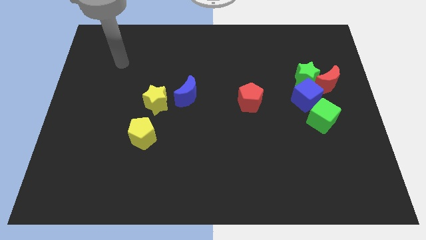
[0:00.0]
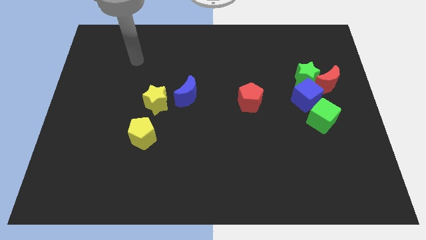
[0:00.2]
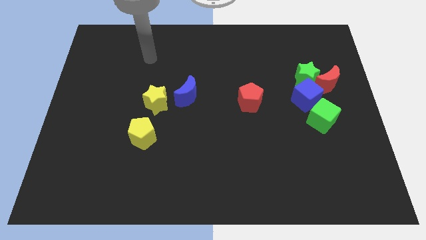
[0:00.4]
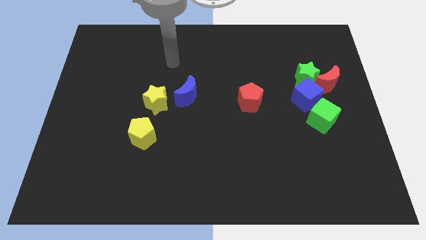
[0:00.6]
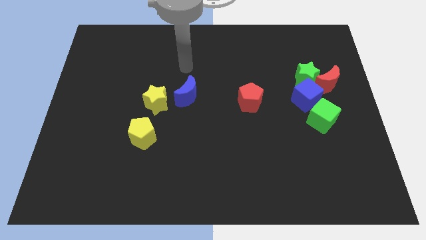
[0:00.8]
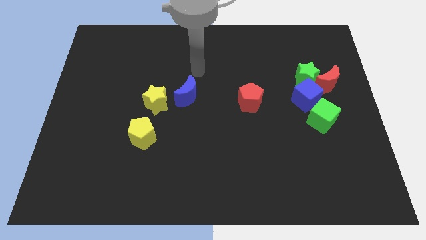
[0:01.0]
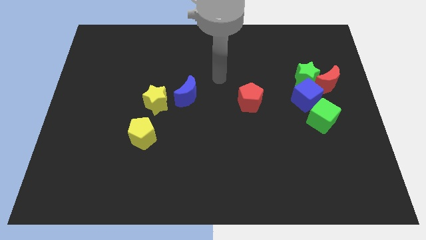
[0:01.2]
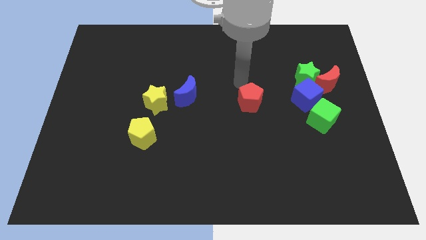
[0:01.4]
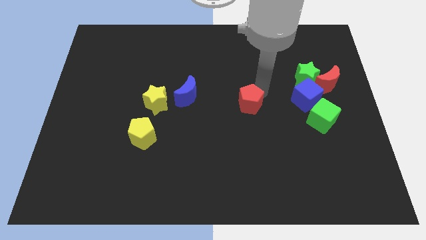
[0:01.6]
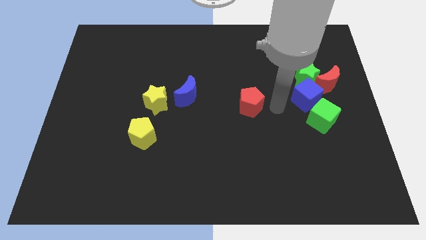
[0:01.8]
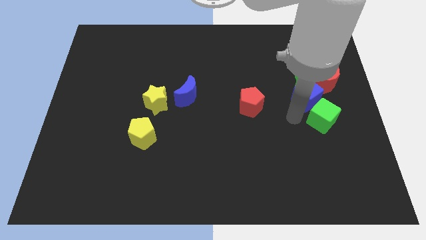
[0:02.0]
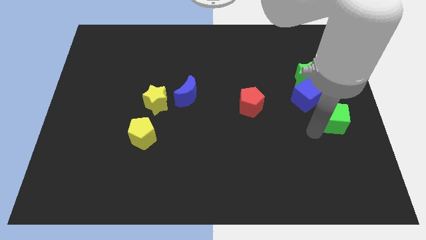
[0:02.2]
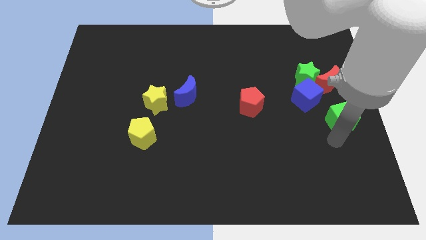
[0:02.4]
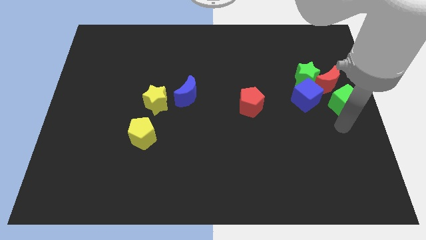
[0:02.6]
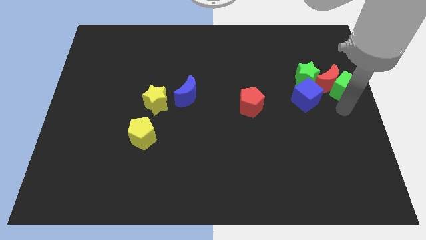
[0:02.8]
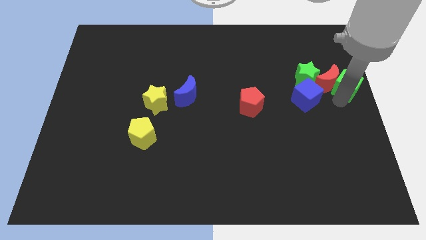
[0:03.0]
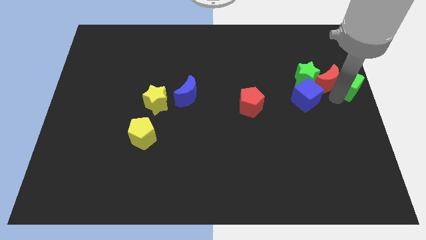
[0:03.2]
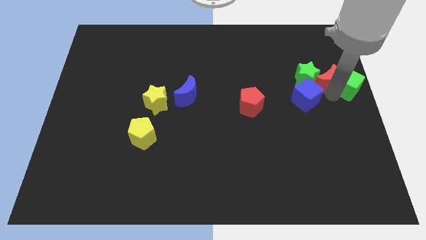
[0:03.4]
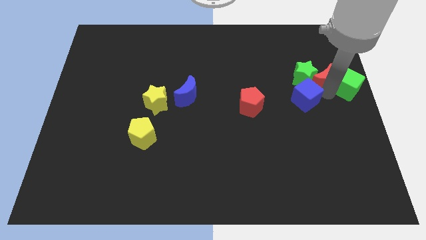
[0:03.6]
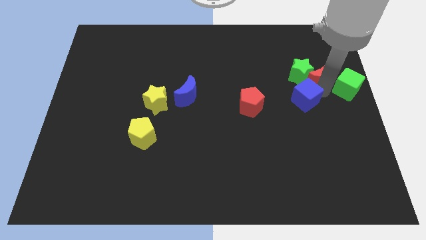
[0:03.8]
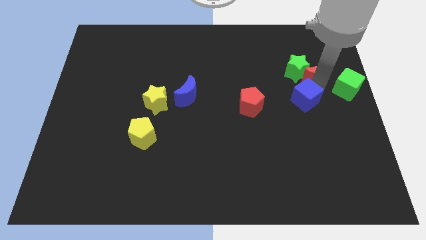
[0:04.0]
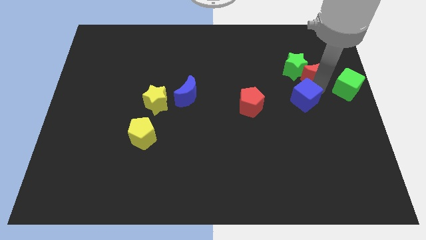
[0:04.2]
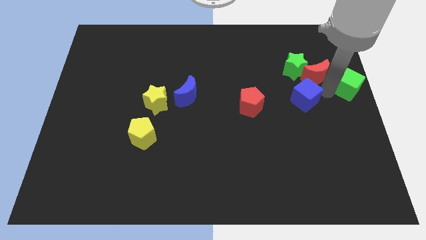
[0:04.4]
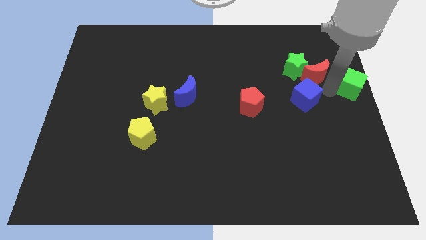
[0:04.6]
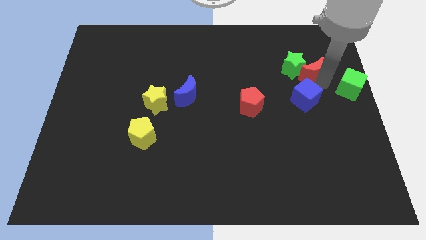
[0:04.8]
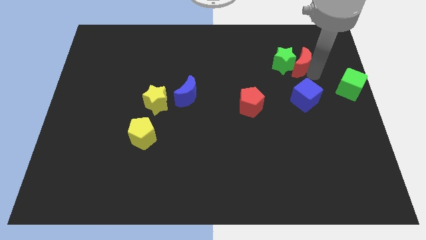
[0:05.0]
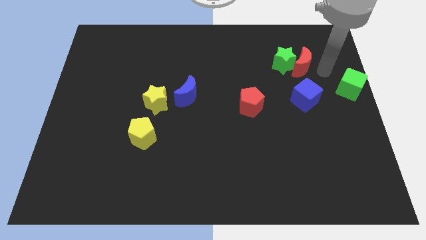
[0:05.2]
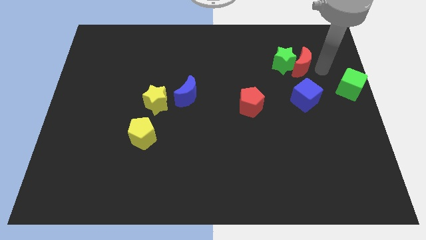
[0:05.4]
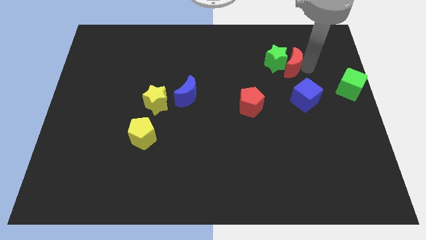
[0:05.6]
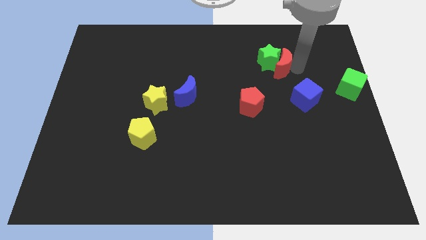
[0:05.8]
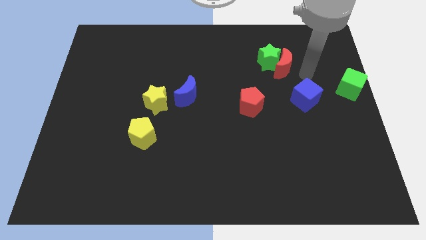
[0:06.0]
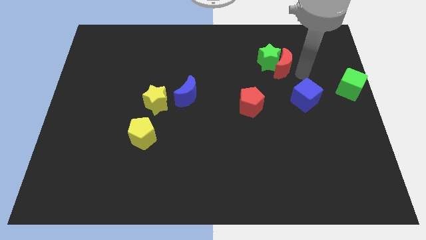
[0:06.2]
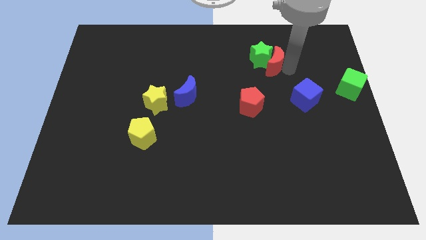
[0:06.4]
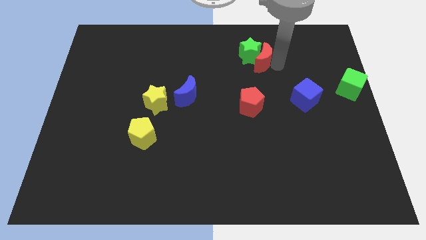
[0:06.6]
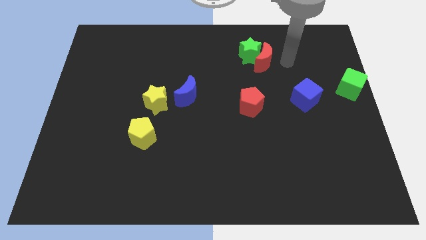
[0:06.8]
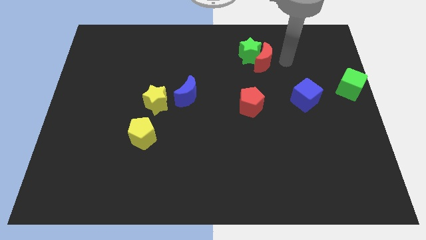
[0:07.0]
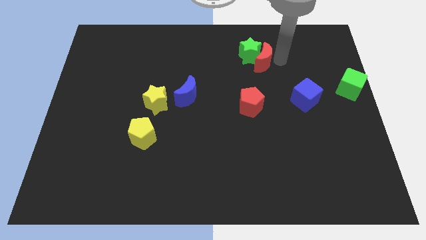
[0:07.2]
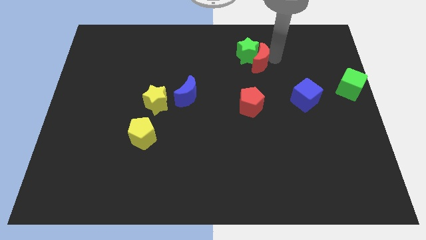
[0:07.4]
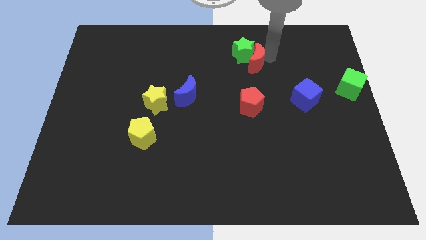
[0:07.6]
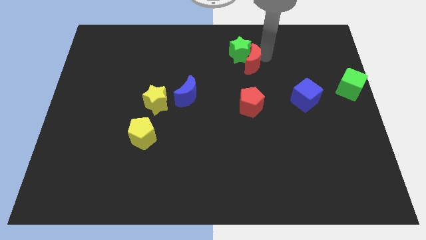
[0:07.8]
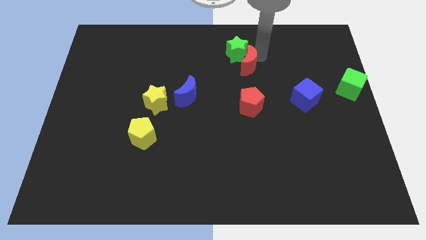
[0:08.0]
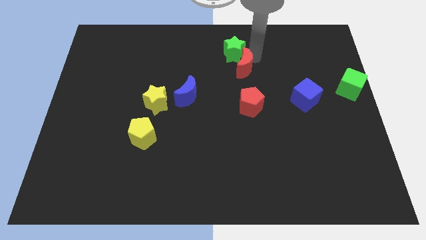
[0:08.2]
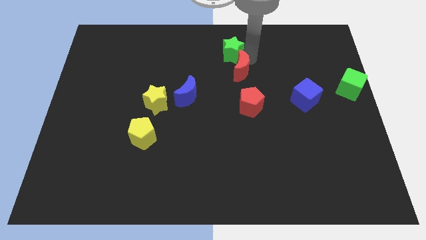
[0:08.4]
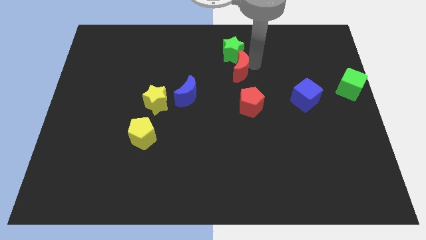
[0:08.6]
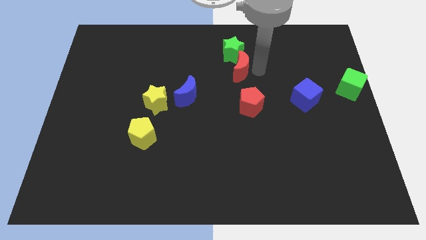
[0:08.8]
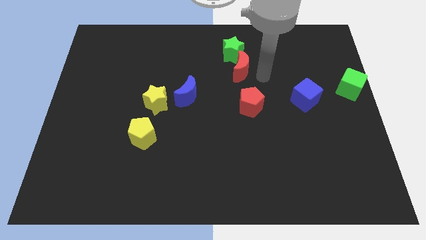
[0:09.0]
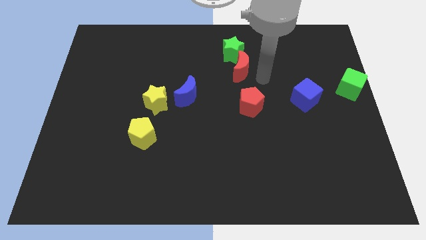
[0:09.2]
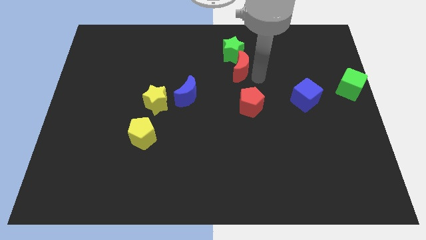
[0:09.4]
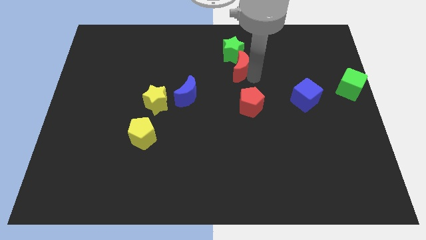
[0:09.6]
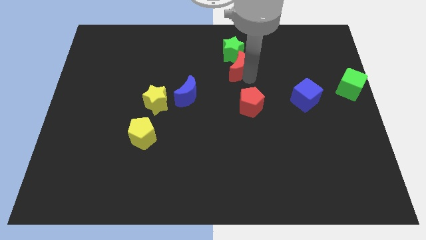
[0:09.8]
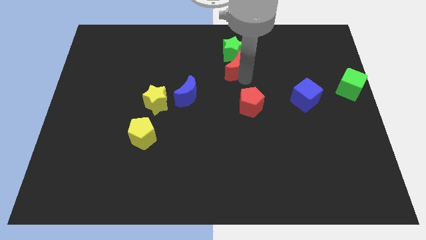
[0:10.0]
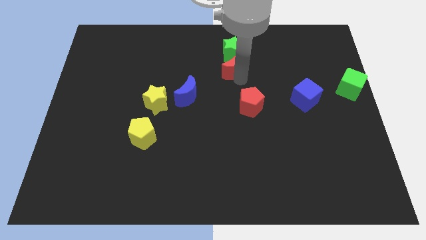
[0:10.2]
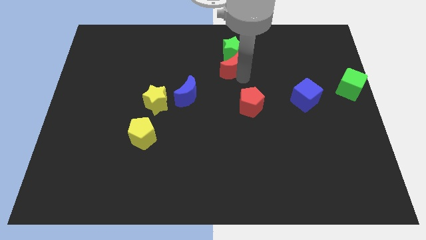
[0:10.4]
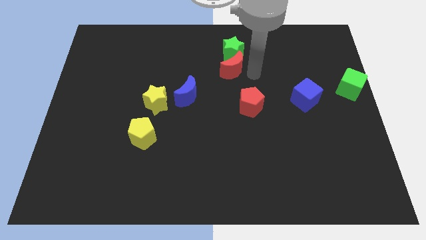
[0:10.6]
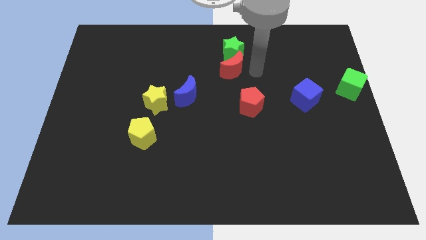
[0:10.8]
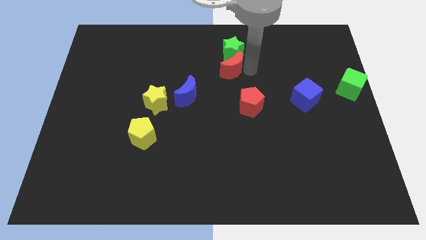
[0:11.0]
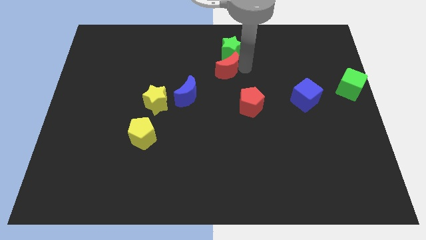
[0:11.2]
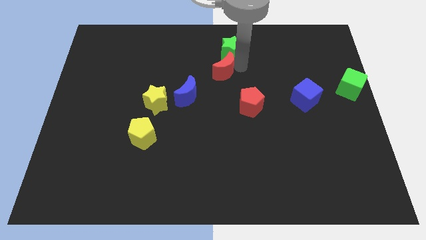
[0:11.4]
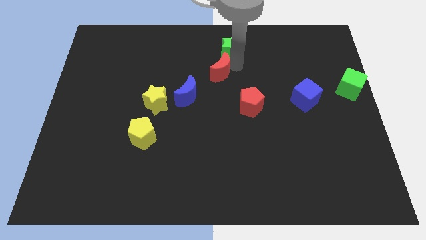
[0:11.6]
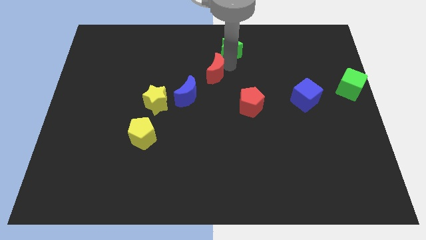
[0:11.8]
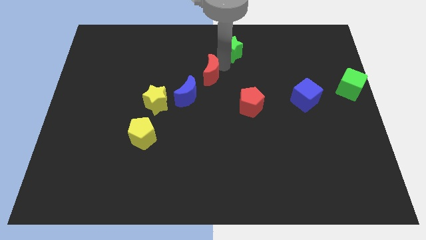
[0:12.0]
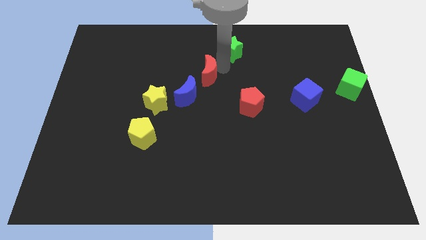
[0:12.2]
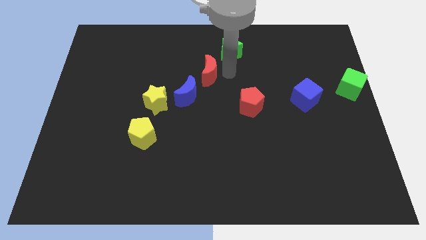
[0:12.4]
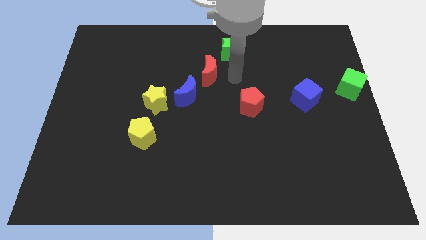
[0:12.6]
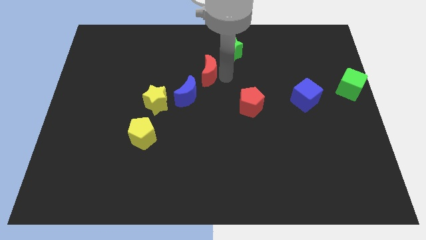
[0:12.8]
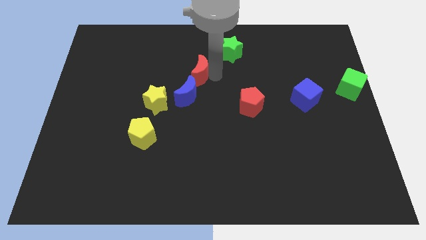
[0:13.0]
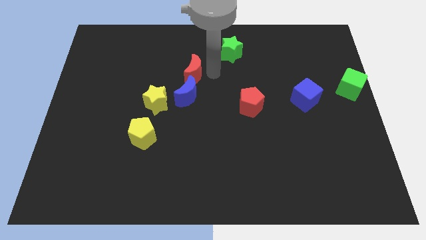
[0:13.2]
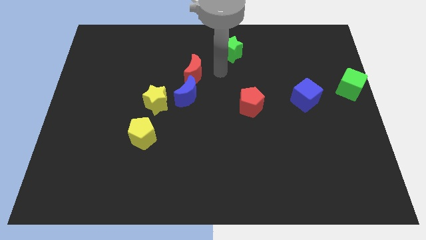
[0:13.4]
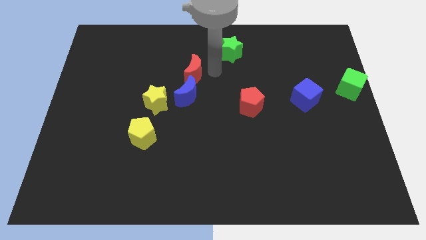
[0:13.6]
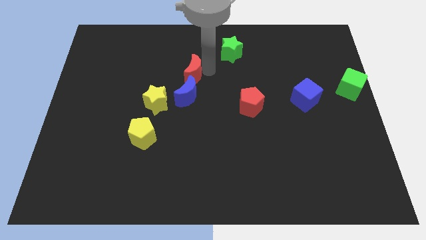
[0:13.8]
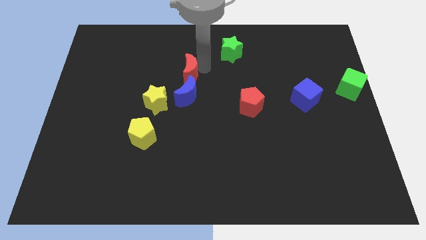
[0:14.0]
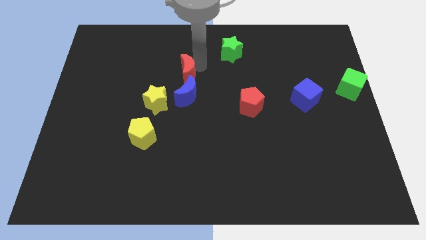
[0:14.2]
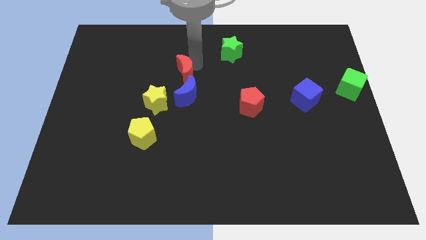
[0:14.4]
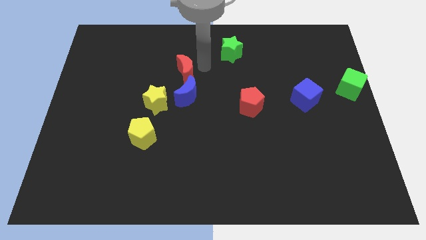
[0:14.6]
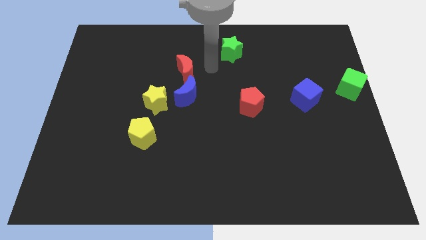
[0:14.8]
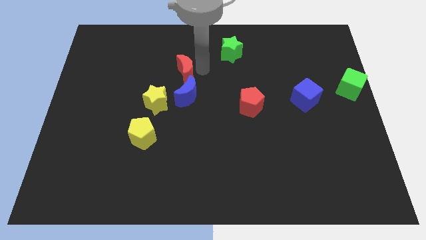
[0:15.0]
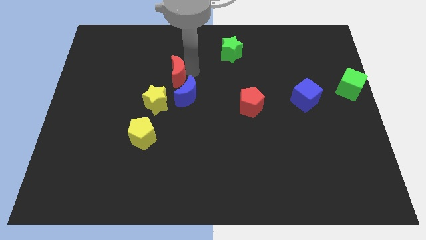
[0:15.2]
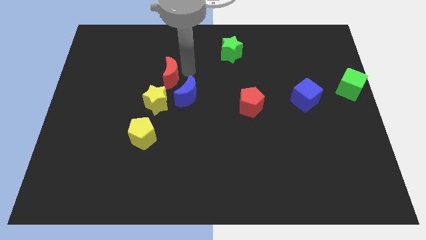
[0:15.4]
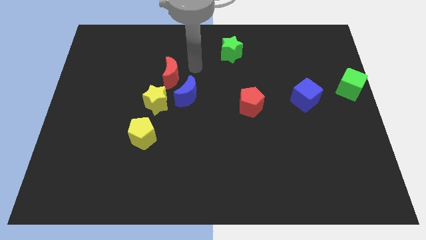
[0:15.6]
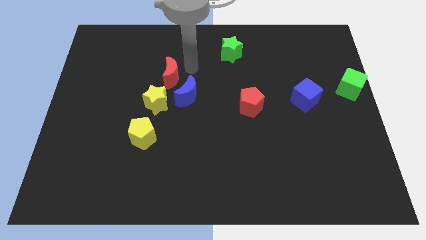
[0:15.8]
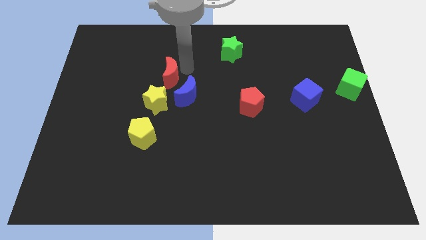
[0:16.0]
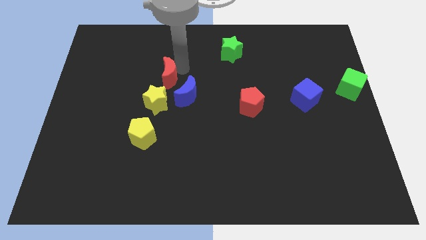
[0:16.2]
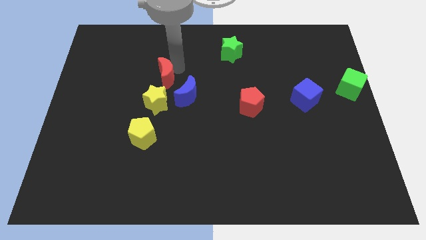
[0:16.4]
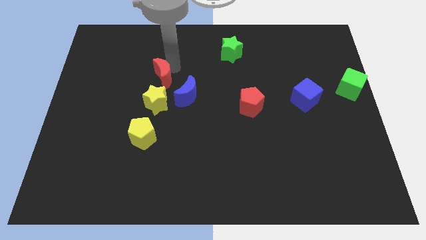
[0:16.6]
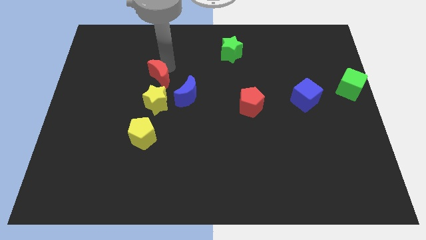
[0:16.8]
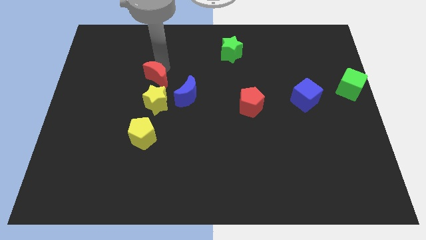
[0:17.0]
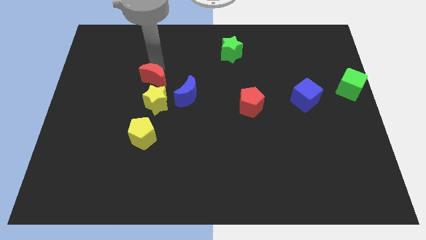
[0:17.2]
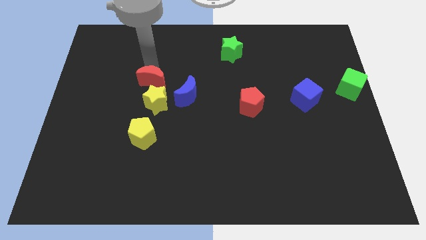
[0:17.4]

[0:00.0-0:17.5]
move the red moon left of the blue moon
